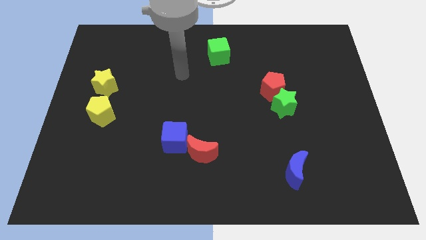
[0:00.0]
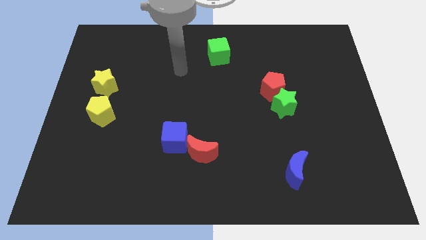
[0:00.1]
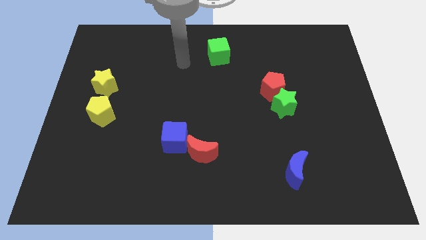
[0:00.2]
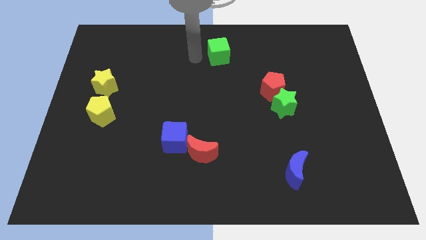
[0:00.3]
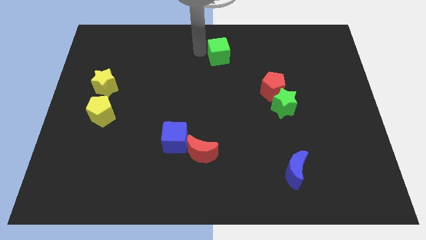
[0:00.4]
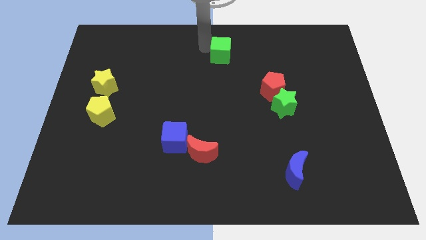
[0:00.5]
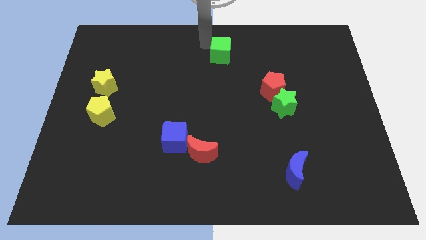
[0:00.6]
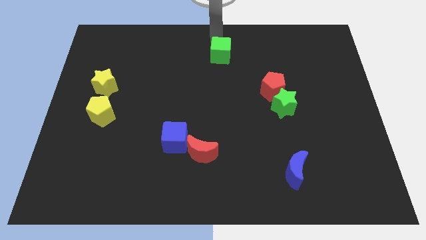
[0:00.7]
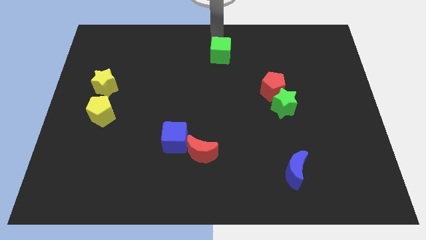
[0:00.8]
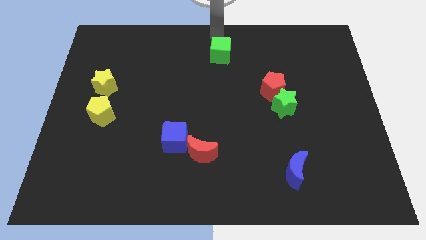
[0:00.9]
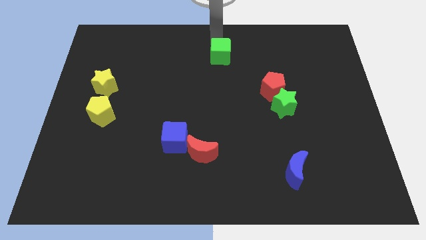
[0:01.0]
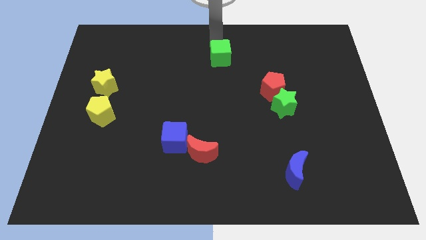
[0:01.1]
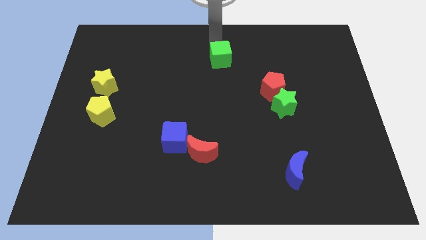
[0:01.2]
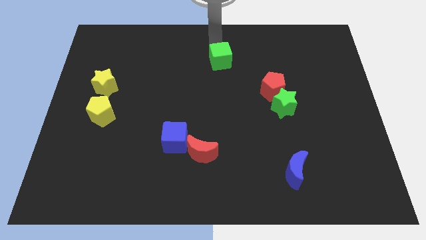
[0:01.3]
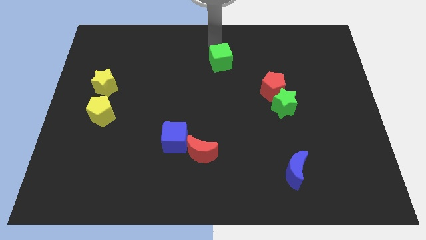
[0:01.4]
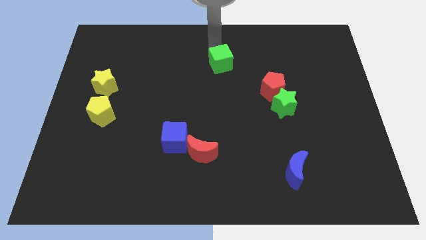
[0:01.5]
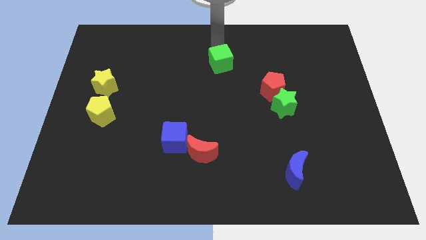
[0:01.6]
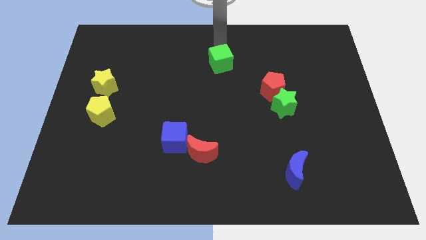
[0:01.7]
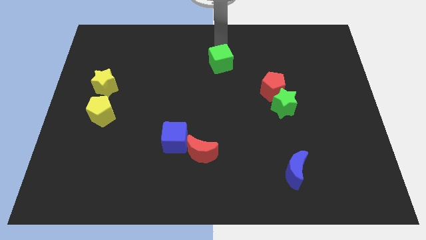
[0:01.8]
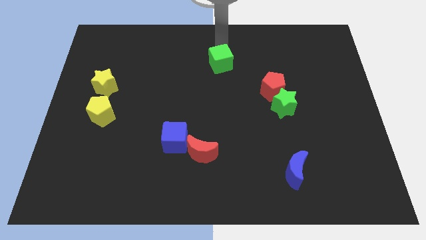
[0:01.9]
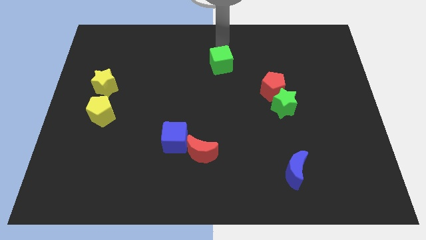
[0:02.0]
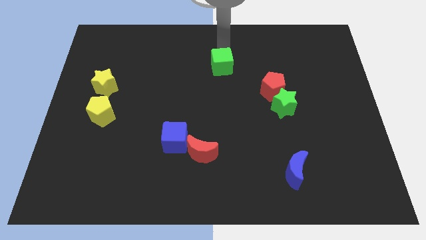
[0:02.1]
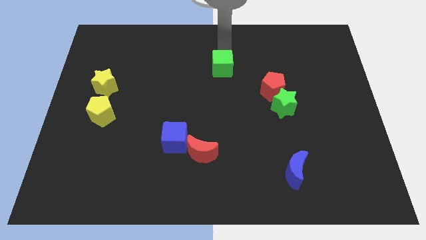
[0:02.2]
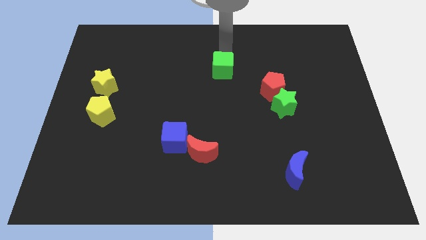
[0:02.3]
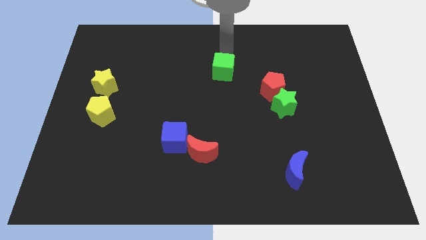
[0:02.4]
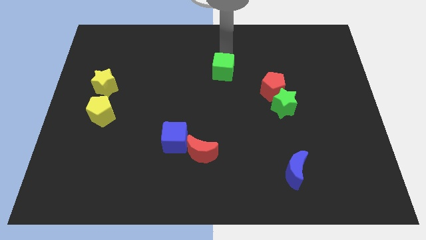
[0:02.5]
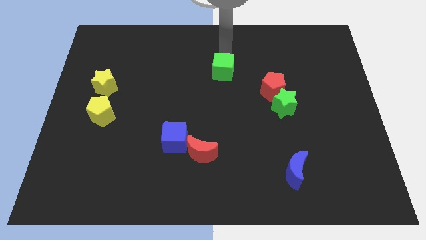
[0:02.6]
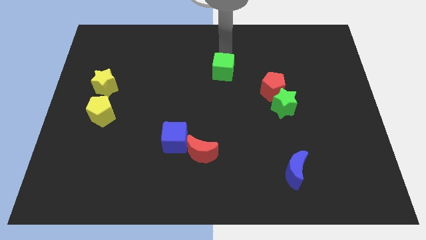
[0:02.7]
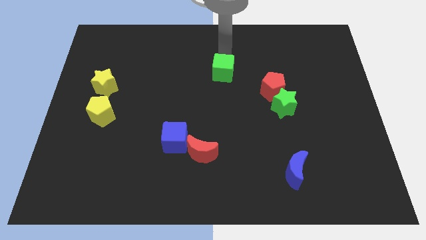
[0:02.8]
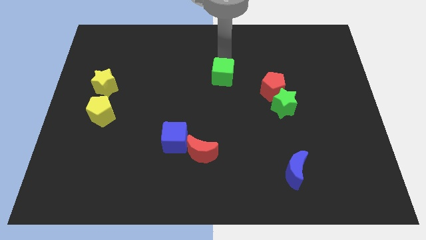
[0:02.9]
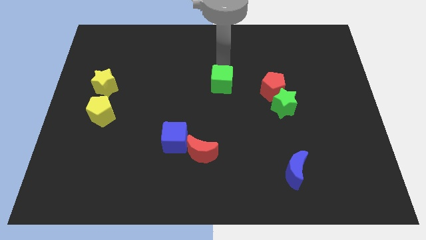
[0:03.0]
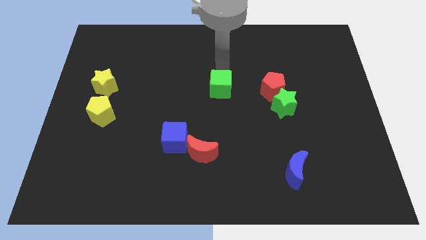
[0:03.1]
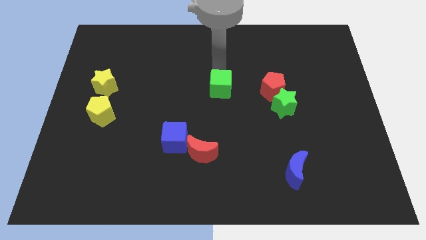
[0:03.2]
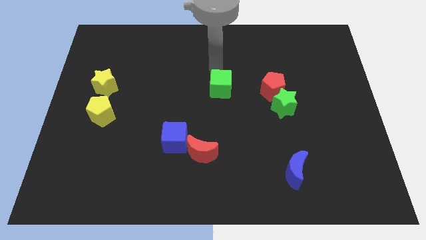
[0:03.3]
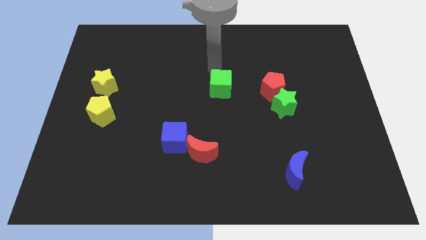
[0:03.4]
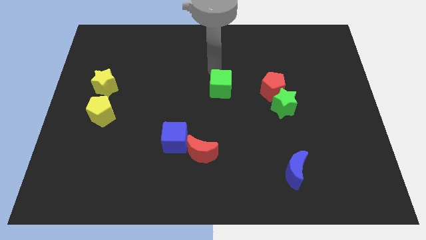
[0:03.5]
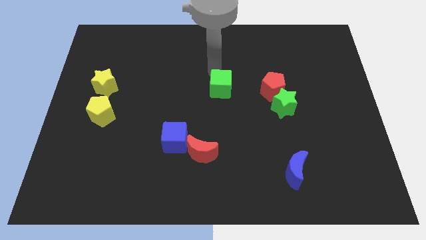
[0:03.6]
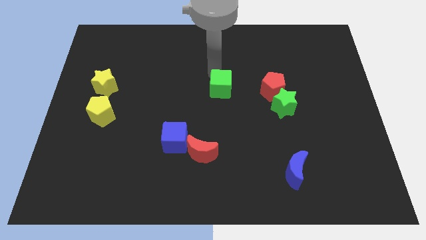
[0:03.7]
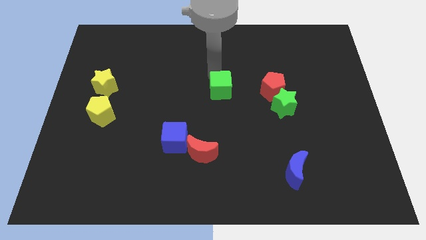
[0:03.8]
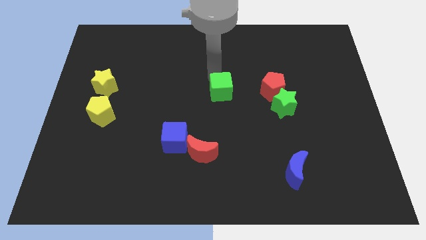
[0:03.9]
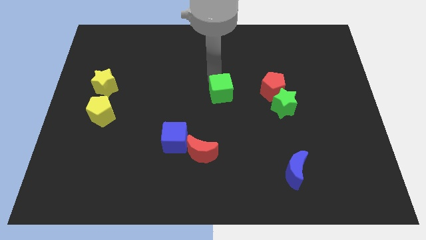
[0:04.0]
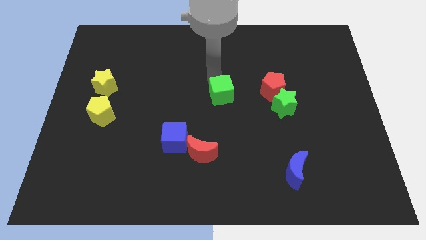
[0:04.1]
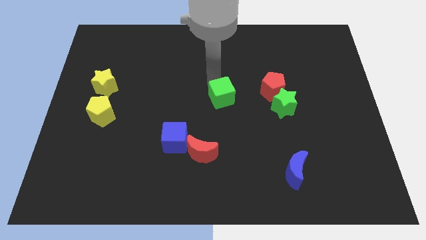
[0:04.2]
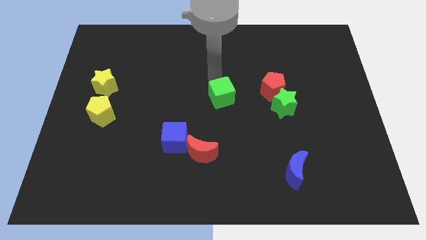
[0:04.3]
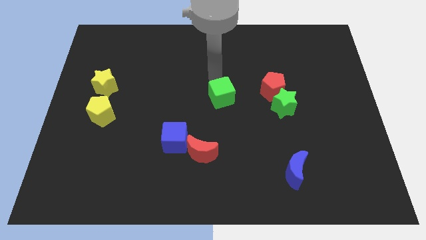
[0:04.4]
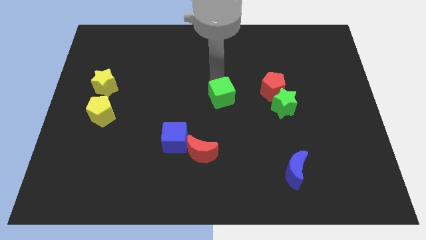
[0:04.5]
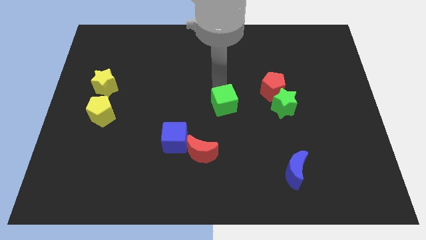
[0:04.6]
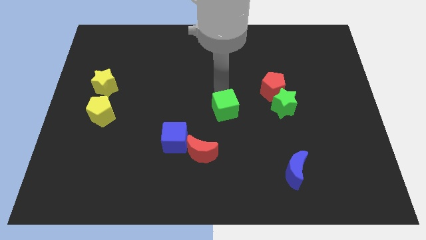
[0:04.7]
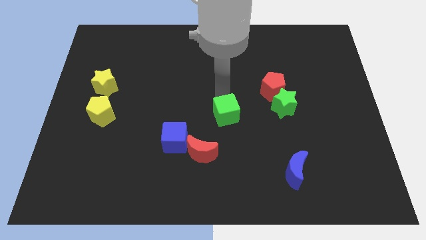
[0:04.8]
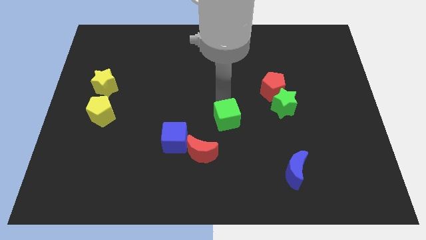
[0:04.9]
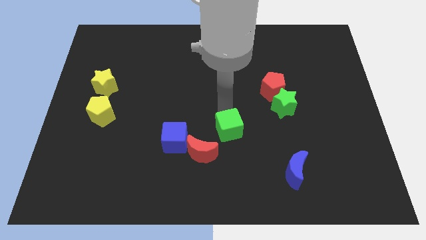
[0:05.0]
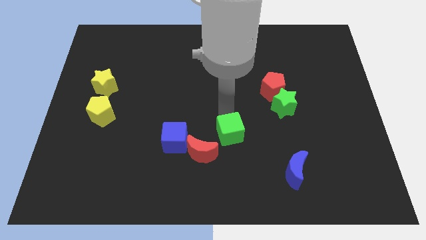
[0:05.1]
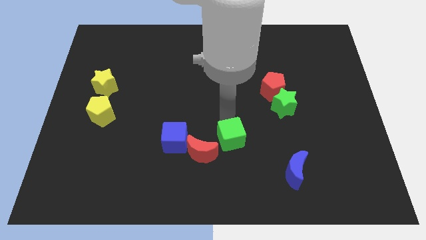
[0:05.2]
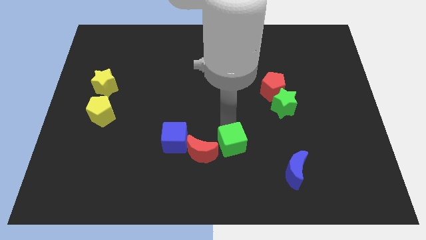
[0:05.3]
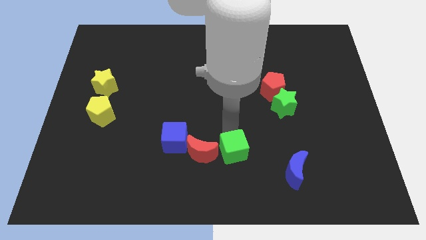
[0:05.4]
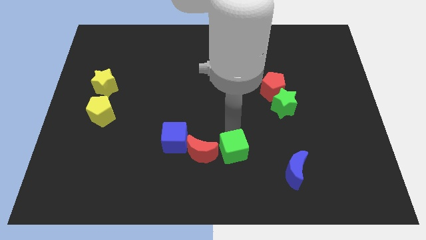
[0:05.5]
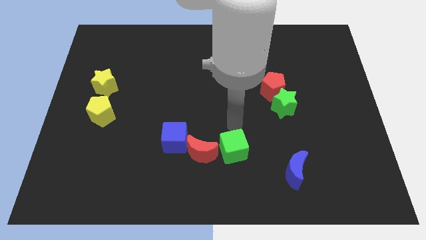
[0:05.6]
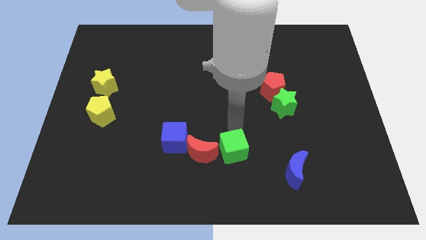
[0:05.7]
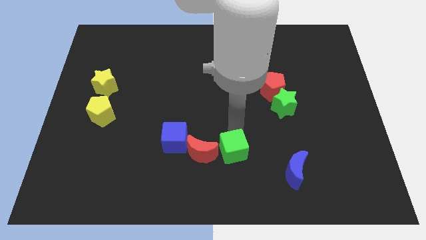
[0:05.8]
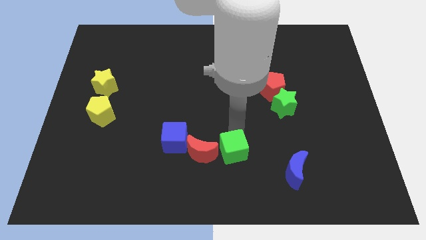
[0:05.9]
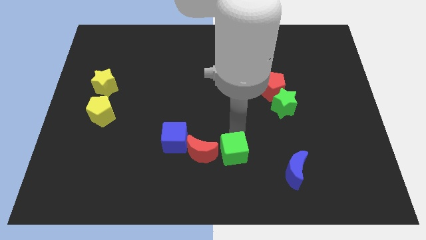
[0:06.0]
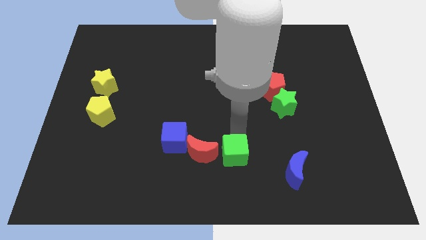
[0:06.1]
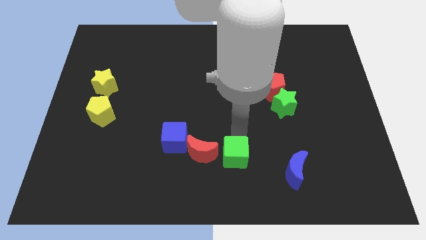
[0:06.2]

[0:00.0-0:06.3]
slide the green cube to the bottom side

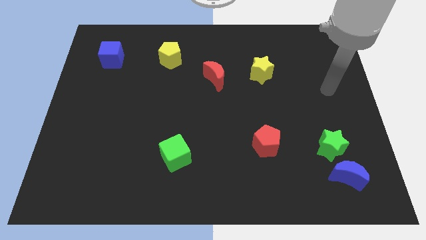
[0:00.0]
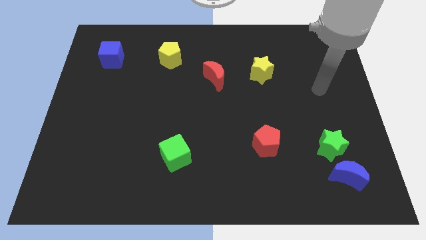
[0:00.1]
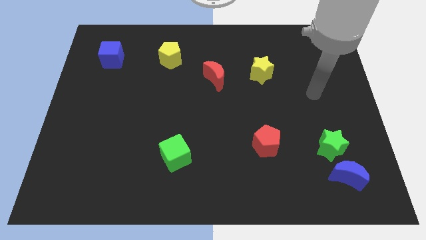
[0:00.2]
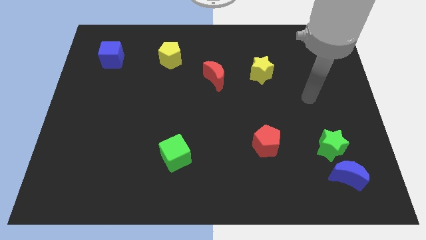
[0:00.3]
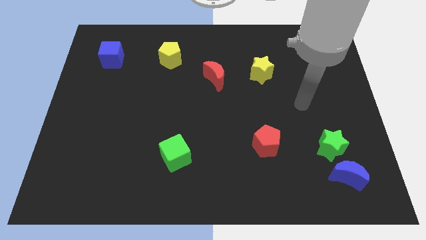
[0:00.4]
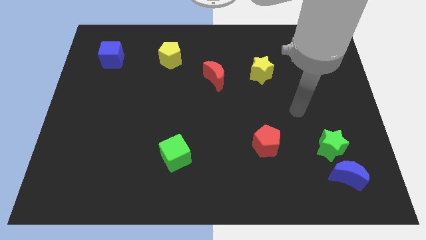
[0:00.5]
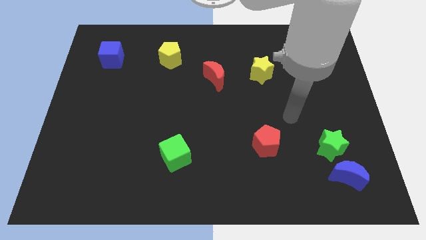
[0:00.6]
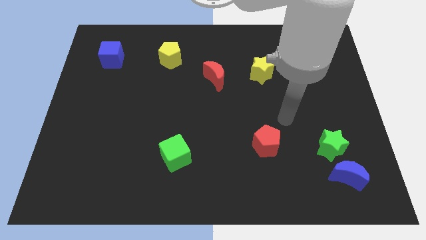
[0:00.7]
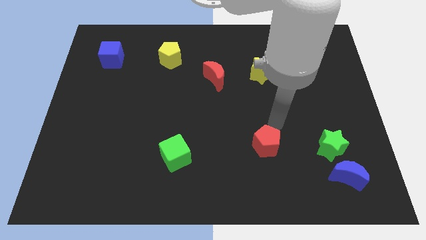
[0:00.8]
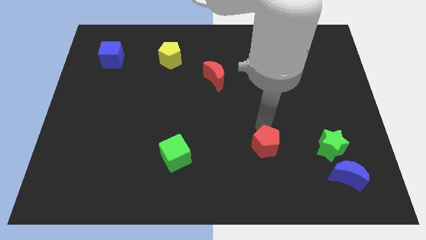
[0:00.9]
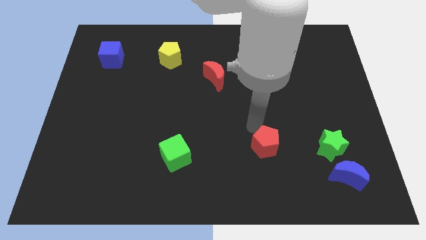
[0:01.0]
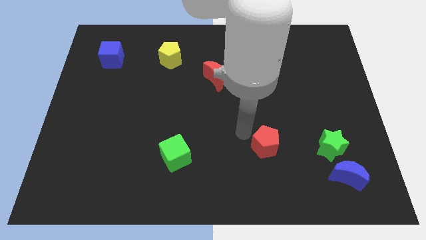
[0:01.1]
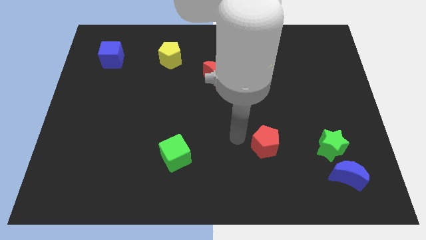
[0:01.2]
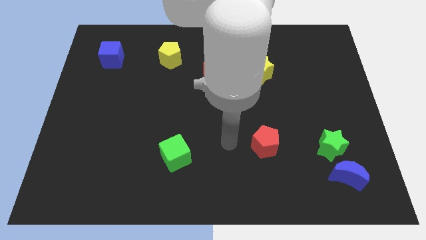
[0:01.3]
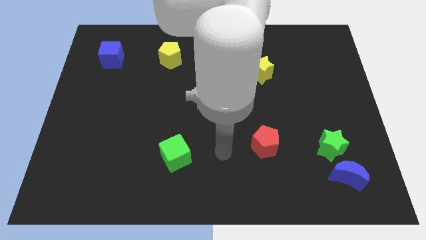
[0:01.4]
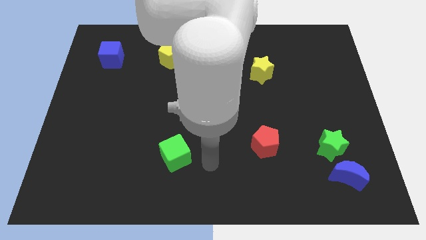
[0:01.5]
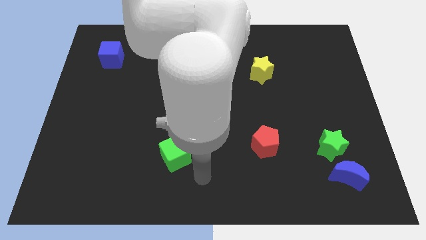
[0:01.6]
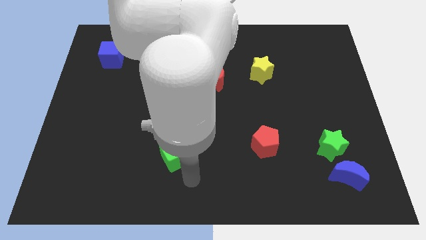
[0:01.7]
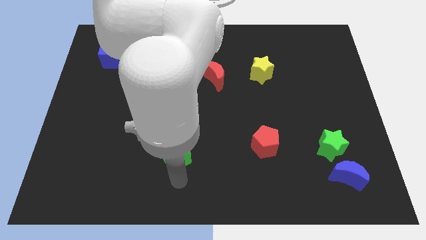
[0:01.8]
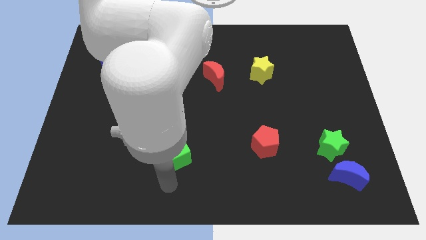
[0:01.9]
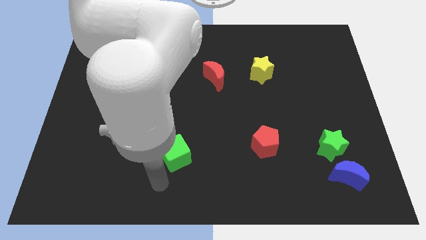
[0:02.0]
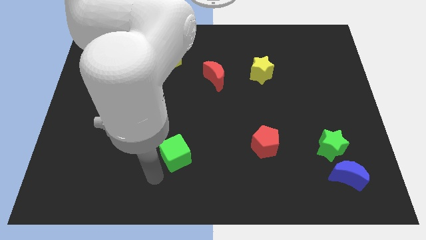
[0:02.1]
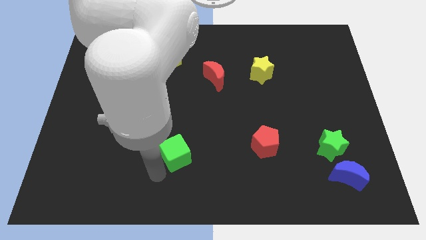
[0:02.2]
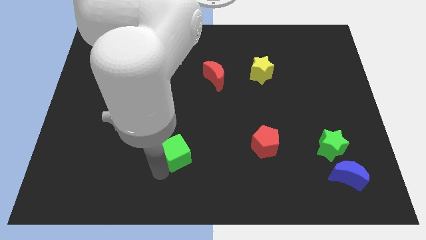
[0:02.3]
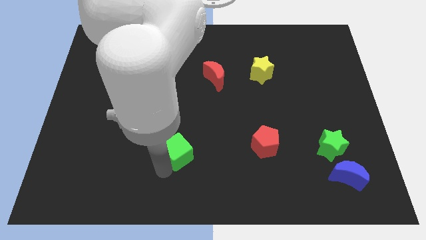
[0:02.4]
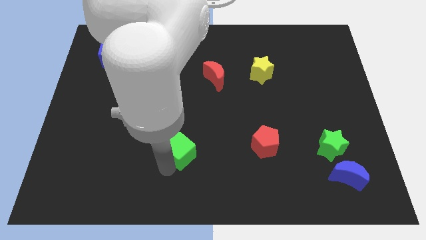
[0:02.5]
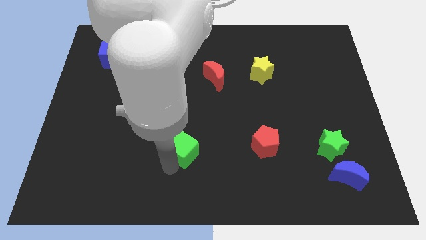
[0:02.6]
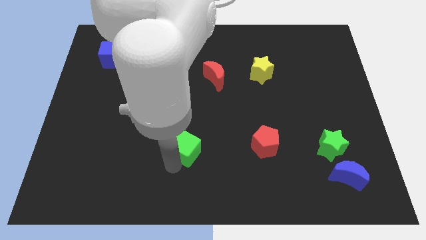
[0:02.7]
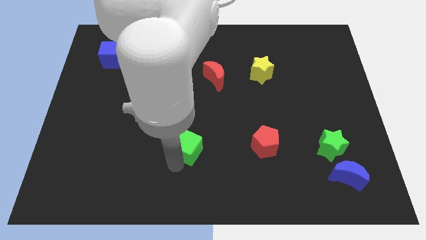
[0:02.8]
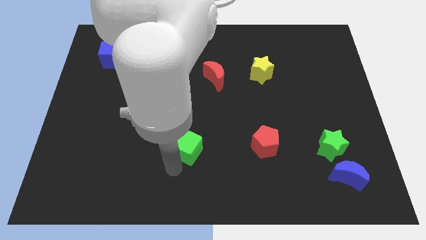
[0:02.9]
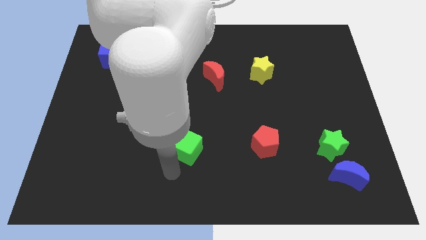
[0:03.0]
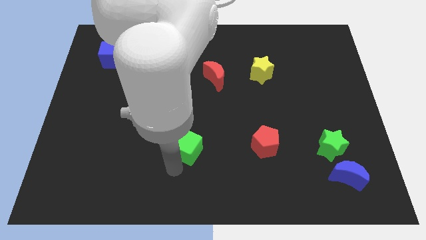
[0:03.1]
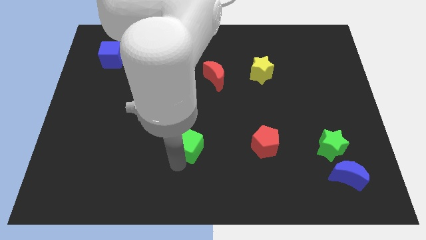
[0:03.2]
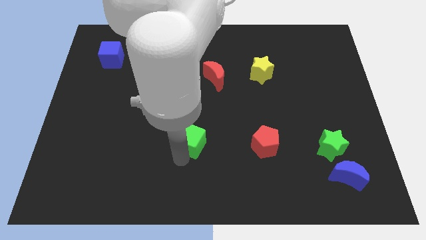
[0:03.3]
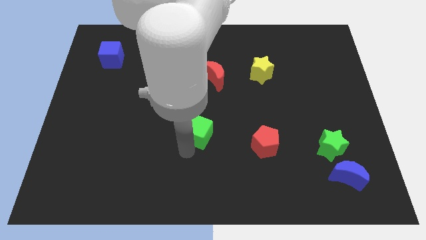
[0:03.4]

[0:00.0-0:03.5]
push the green cube to the center of the board
